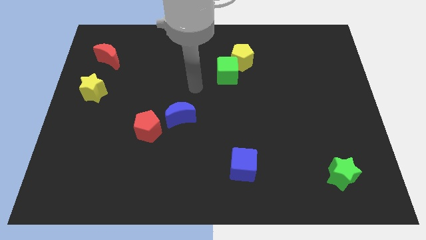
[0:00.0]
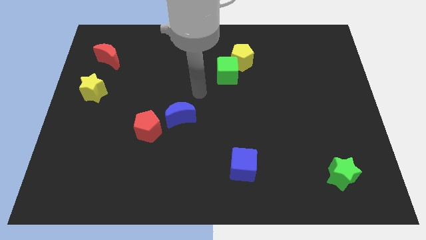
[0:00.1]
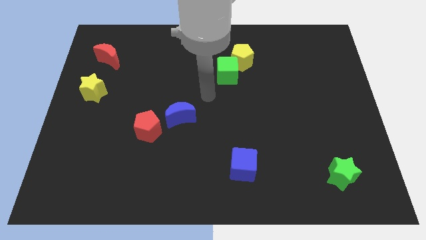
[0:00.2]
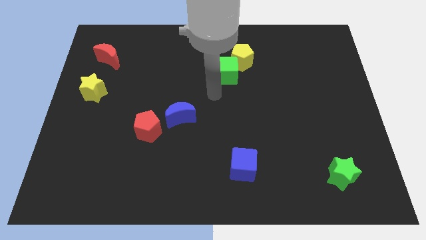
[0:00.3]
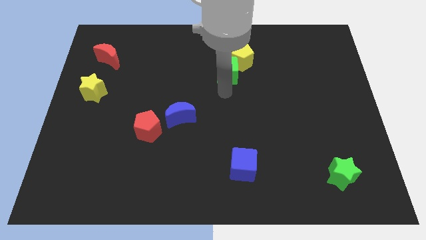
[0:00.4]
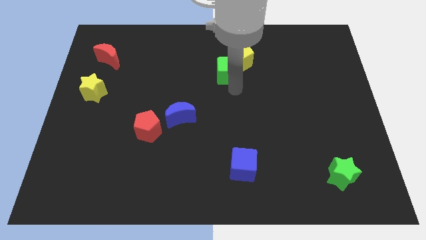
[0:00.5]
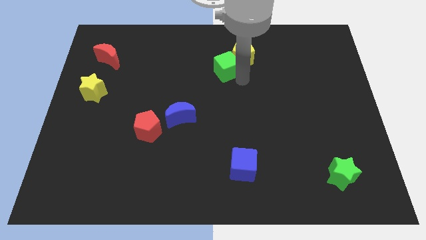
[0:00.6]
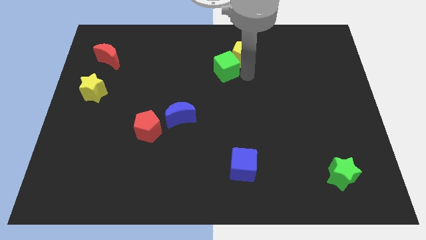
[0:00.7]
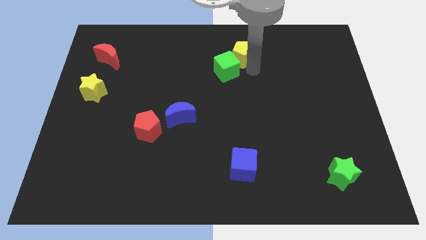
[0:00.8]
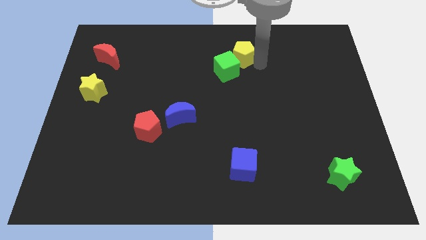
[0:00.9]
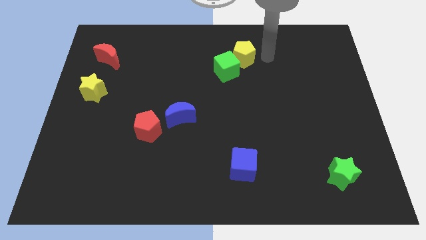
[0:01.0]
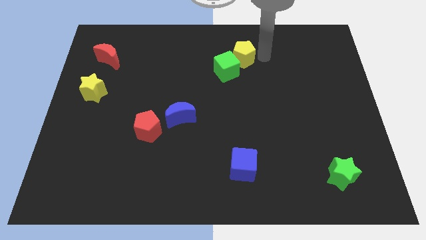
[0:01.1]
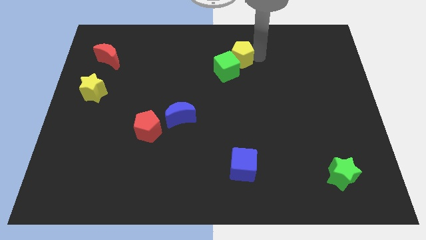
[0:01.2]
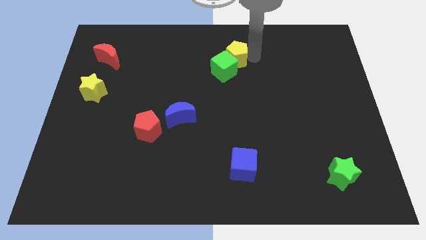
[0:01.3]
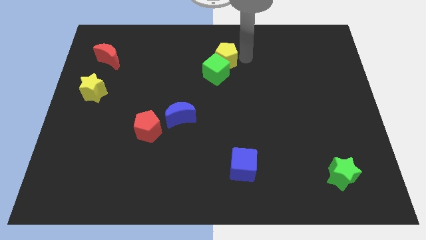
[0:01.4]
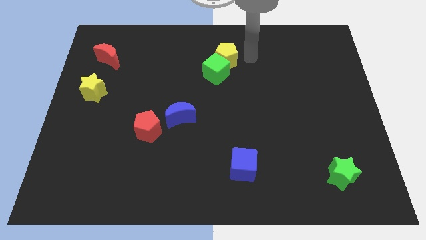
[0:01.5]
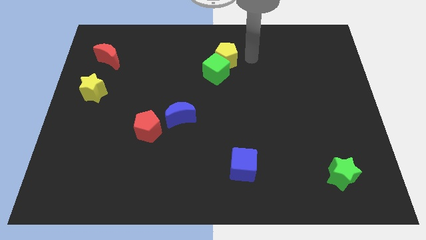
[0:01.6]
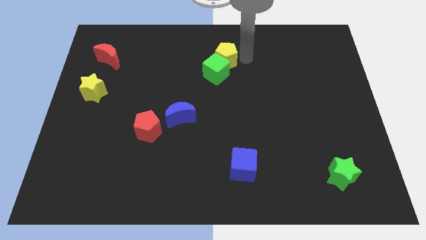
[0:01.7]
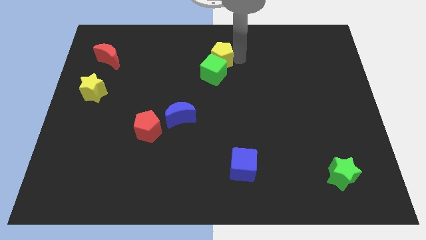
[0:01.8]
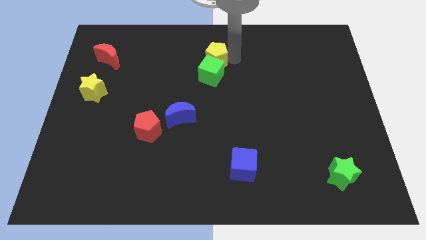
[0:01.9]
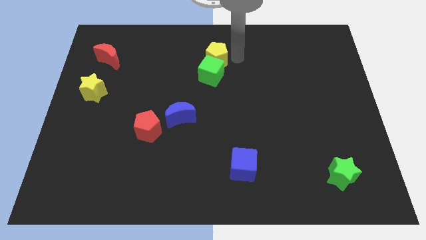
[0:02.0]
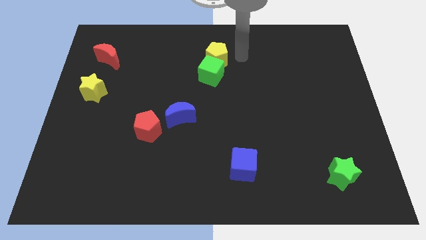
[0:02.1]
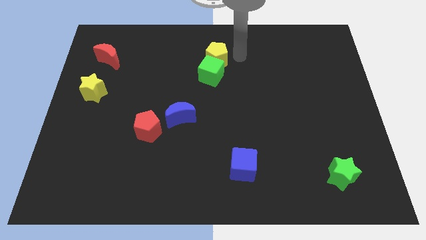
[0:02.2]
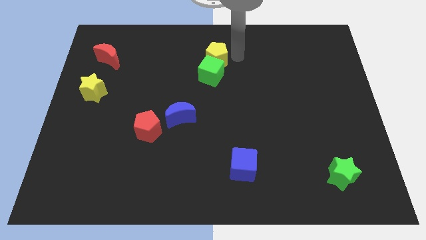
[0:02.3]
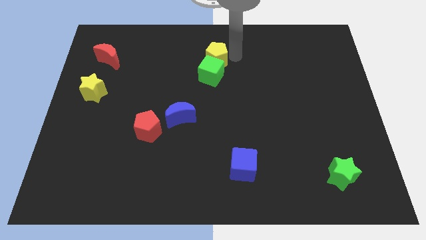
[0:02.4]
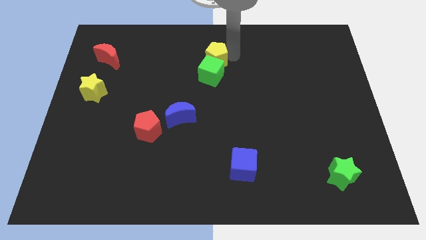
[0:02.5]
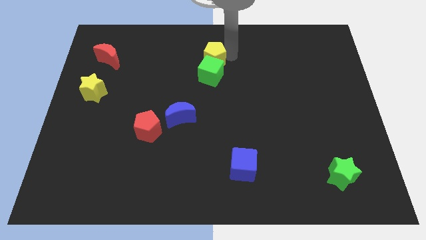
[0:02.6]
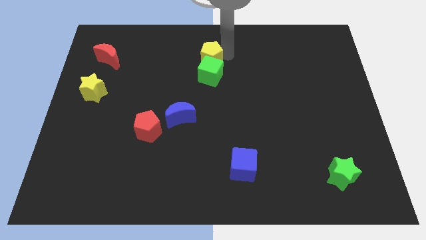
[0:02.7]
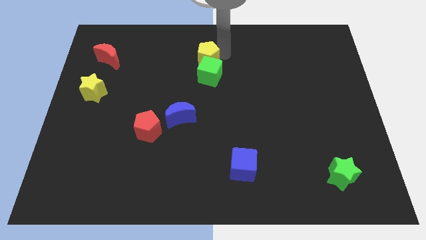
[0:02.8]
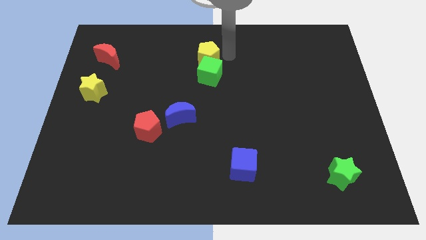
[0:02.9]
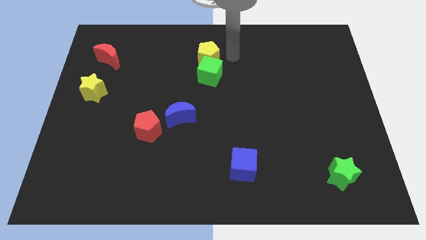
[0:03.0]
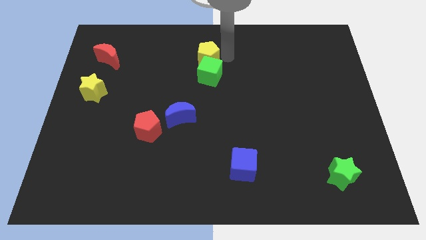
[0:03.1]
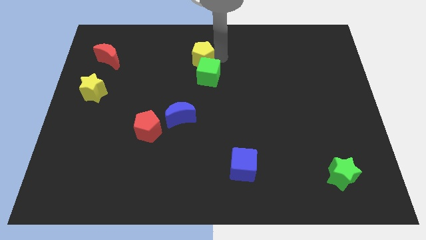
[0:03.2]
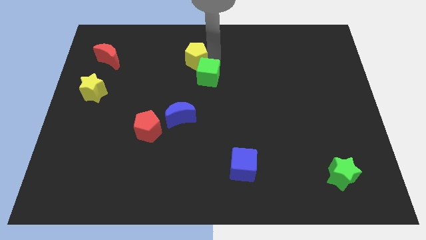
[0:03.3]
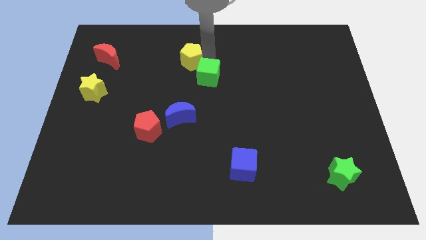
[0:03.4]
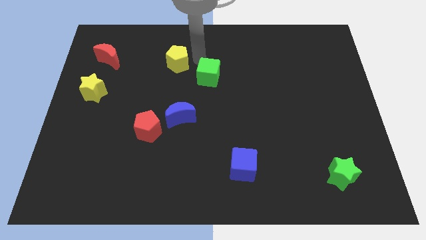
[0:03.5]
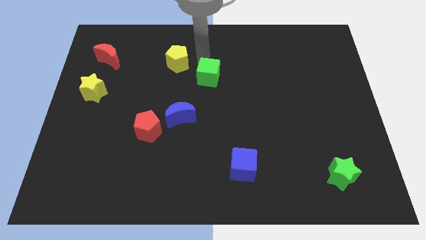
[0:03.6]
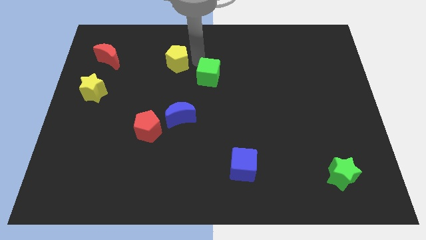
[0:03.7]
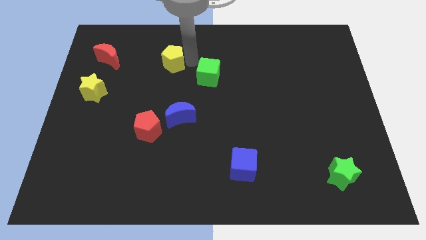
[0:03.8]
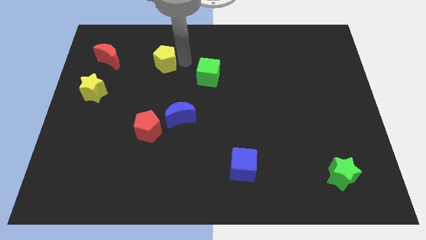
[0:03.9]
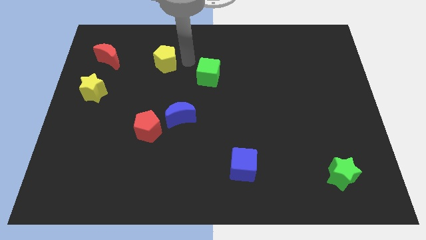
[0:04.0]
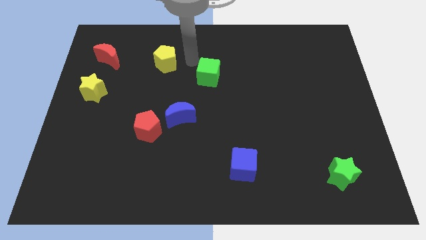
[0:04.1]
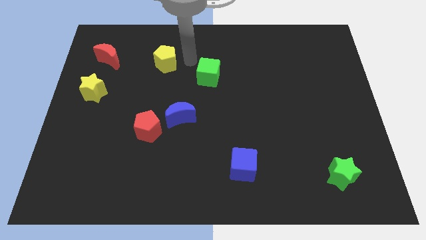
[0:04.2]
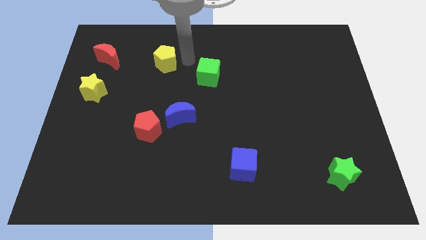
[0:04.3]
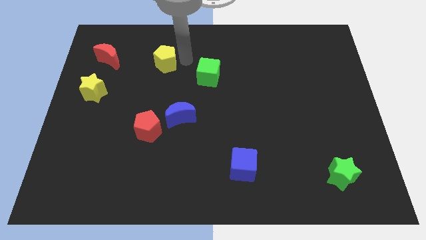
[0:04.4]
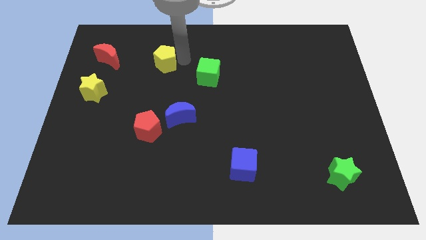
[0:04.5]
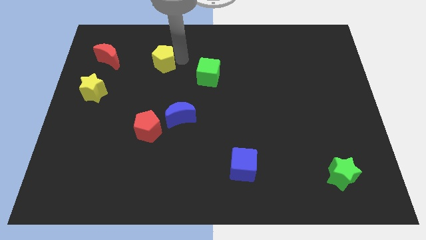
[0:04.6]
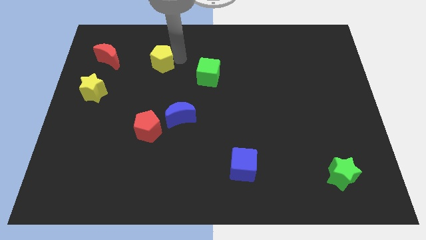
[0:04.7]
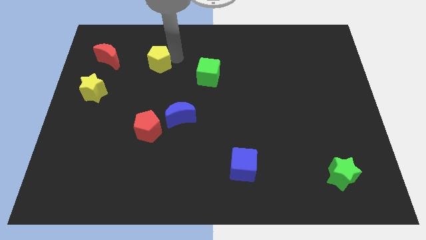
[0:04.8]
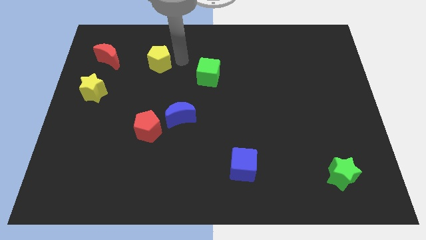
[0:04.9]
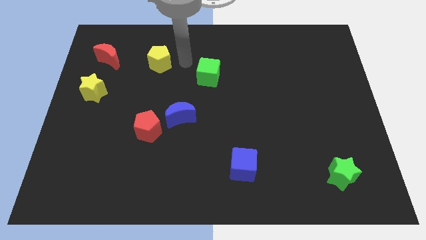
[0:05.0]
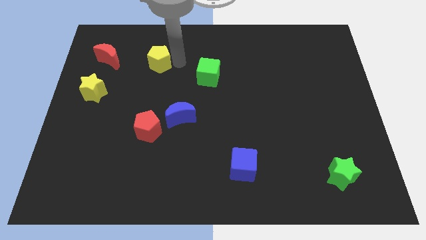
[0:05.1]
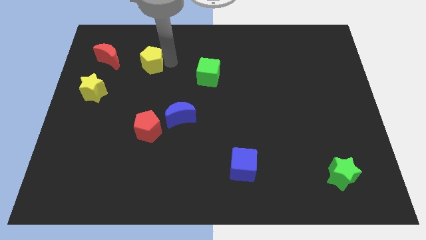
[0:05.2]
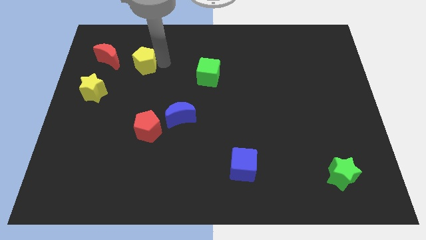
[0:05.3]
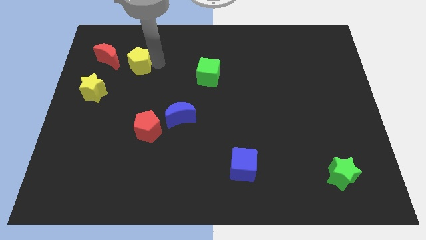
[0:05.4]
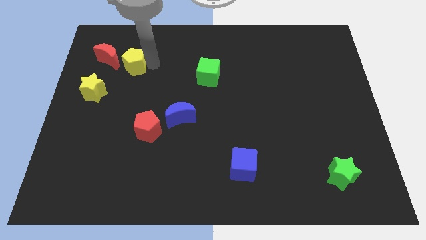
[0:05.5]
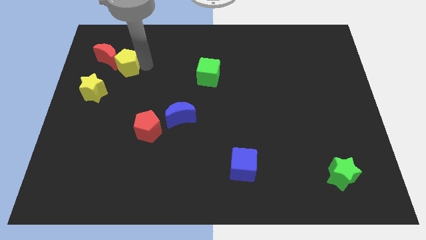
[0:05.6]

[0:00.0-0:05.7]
slide the yellow pentagon next to the red moon
